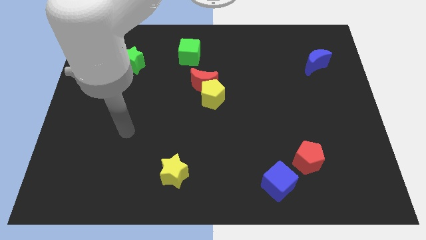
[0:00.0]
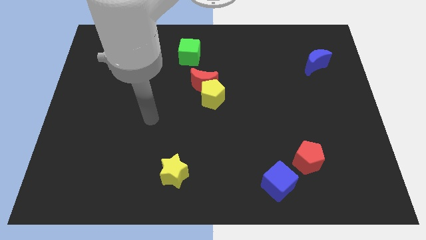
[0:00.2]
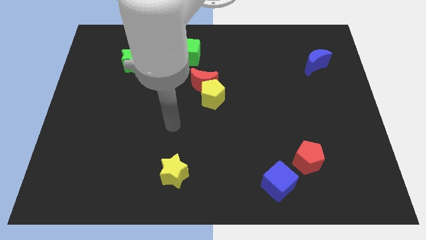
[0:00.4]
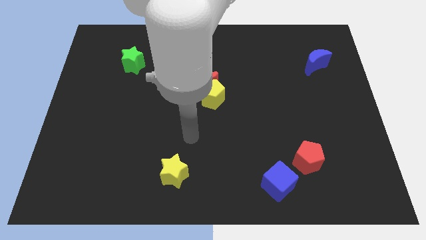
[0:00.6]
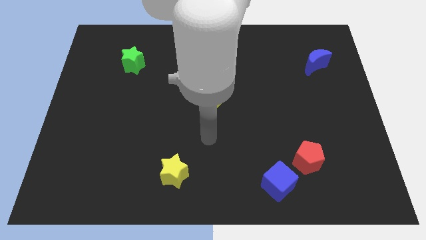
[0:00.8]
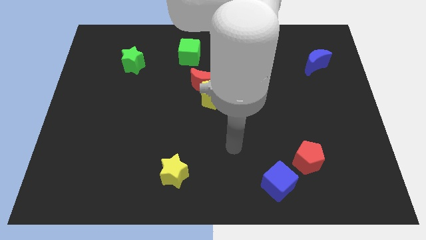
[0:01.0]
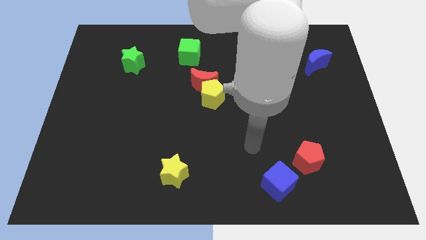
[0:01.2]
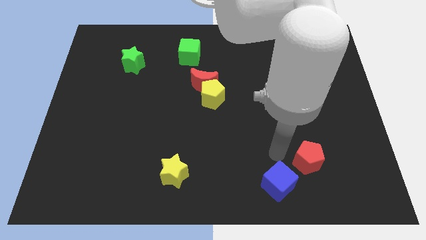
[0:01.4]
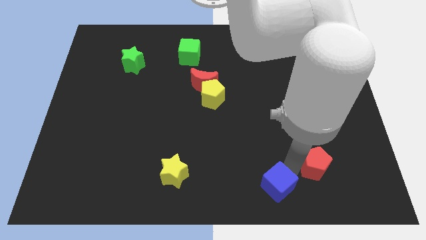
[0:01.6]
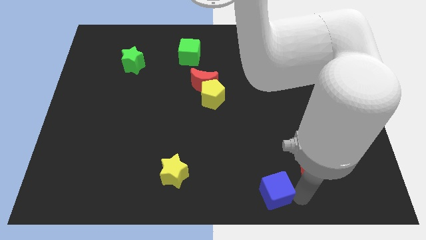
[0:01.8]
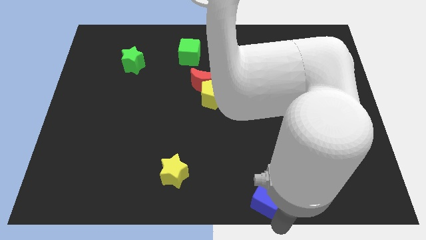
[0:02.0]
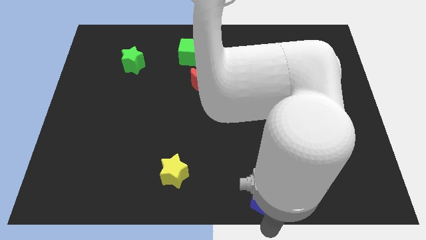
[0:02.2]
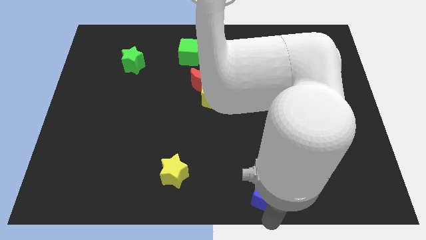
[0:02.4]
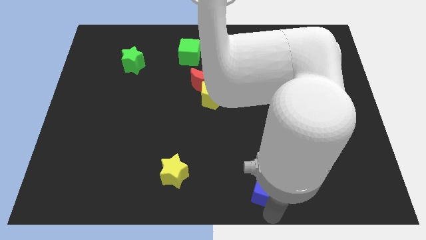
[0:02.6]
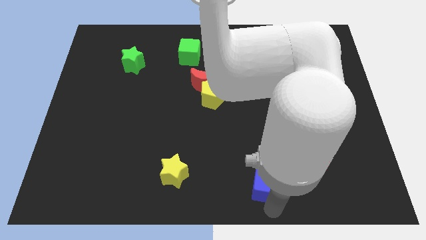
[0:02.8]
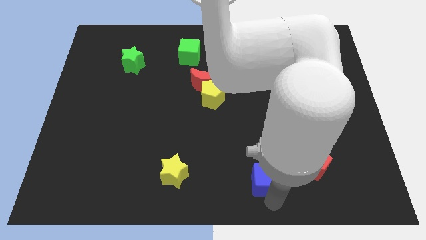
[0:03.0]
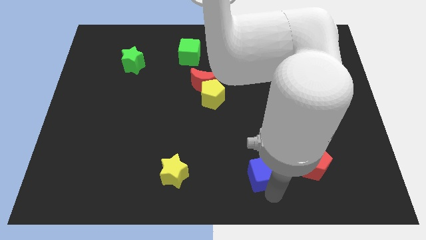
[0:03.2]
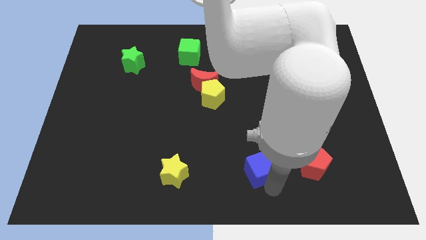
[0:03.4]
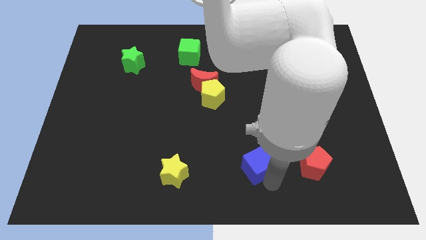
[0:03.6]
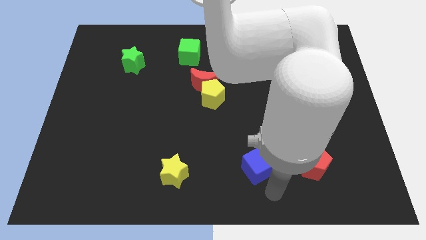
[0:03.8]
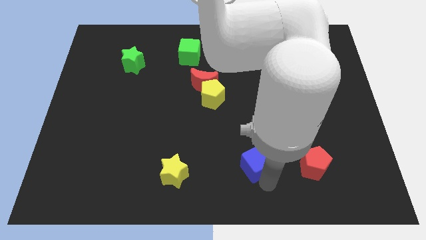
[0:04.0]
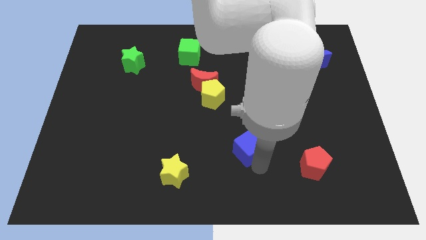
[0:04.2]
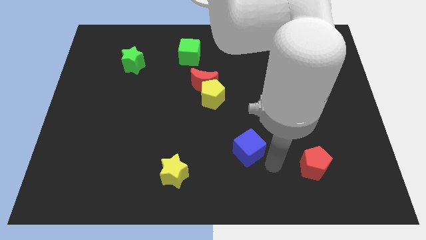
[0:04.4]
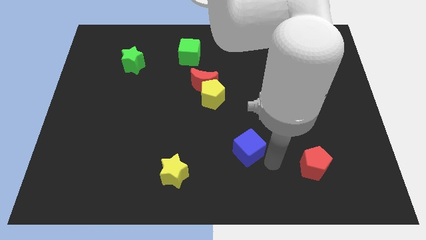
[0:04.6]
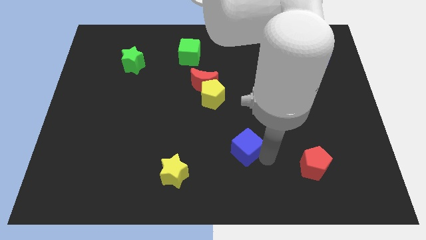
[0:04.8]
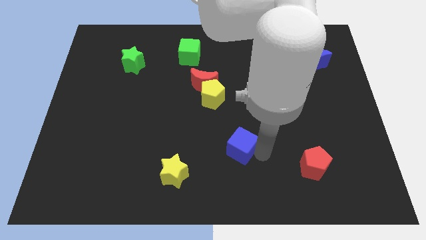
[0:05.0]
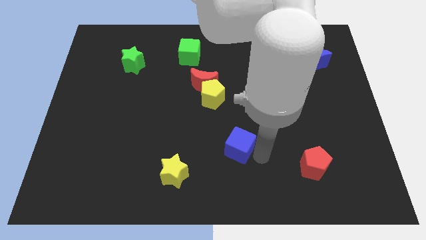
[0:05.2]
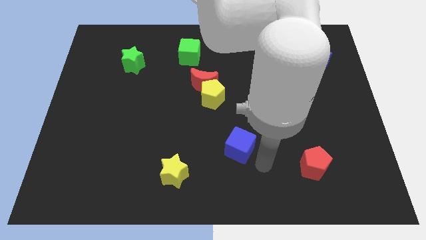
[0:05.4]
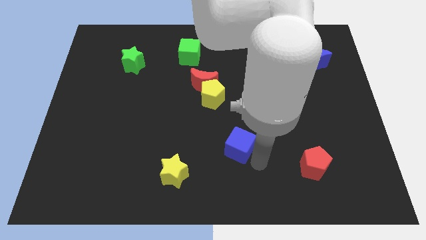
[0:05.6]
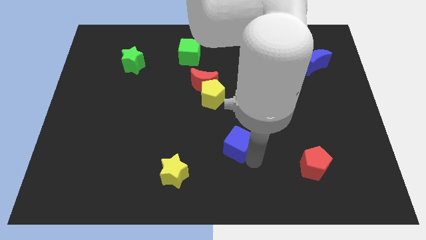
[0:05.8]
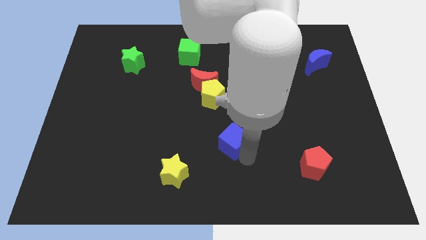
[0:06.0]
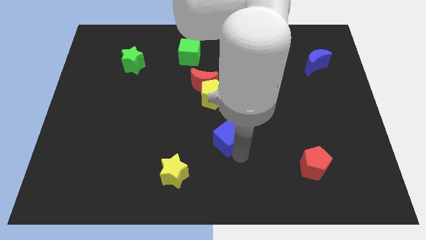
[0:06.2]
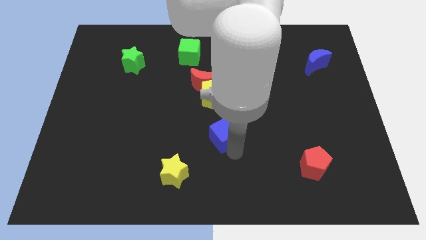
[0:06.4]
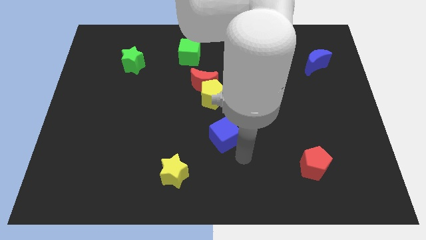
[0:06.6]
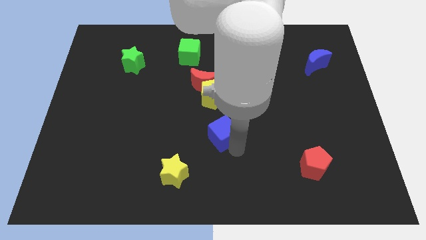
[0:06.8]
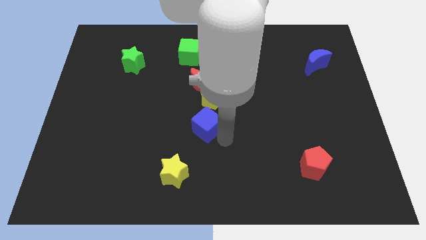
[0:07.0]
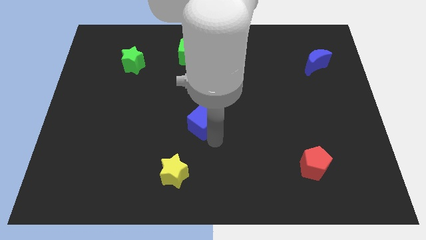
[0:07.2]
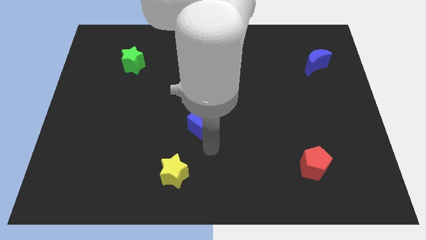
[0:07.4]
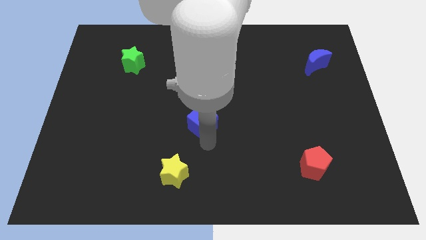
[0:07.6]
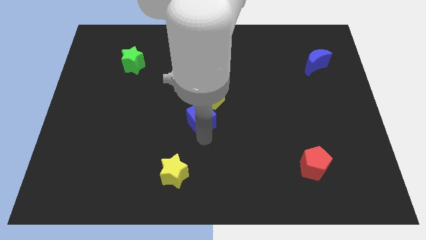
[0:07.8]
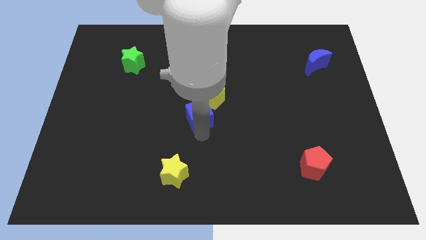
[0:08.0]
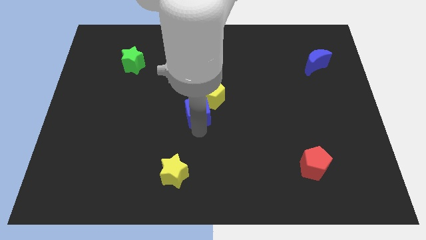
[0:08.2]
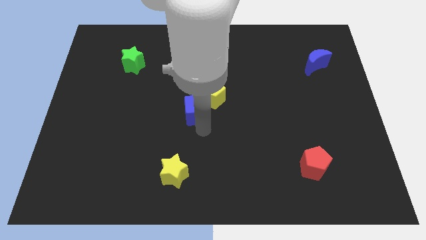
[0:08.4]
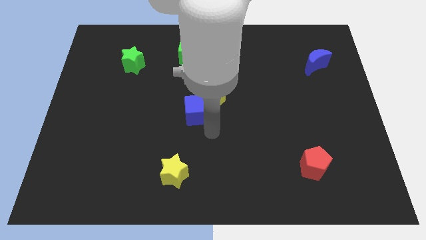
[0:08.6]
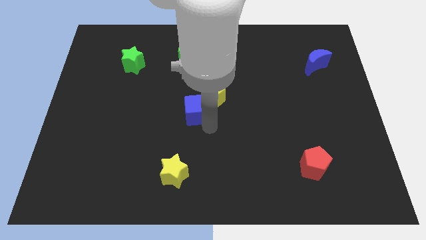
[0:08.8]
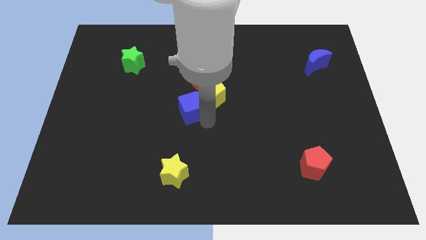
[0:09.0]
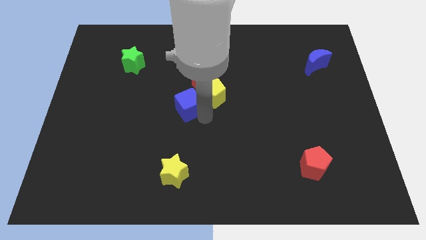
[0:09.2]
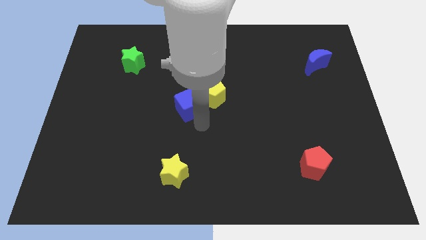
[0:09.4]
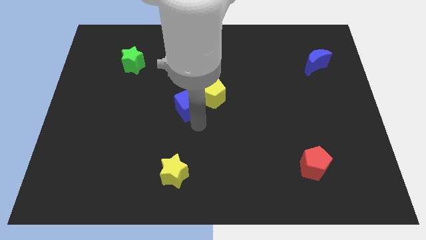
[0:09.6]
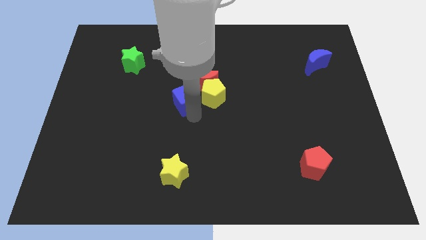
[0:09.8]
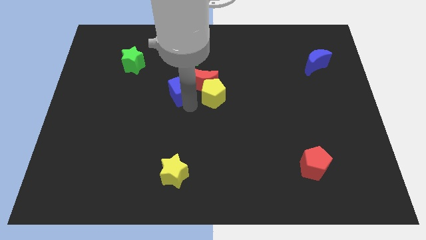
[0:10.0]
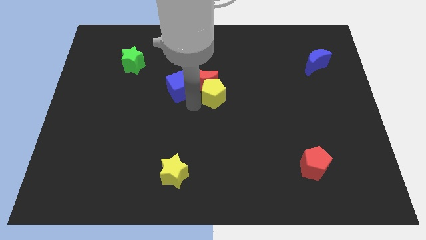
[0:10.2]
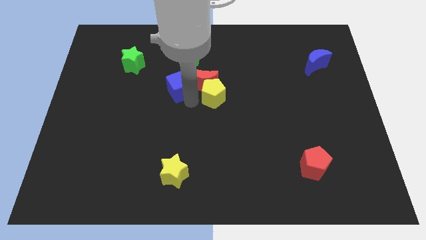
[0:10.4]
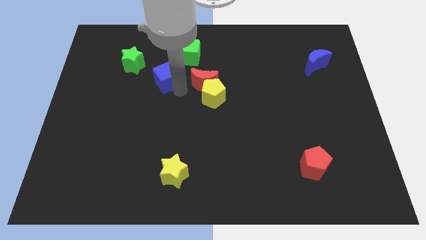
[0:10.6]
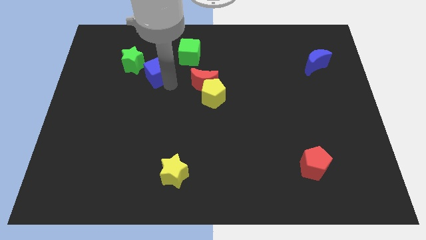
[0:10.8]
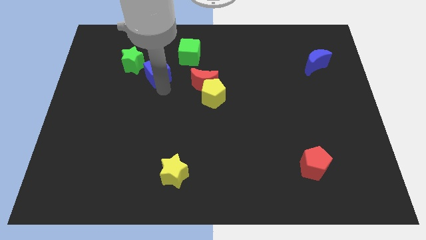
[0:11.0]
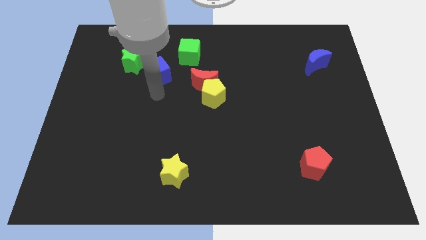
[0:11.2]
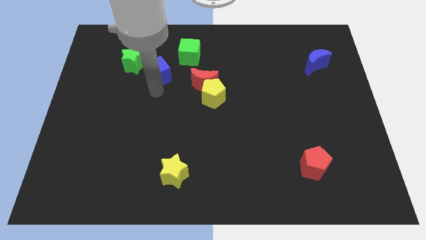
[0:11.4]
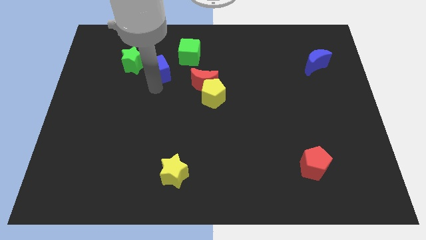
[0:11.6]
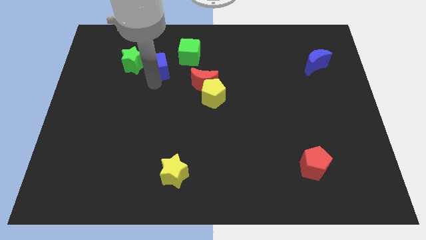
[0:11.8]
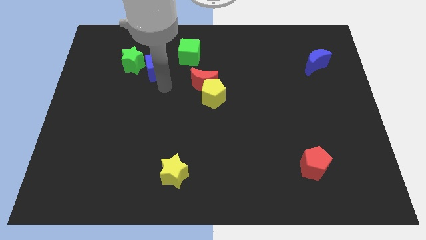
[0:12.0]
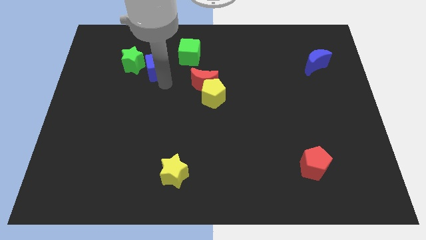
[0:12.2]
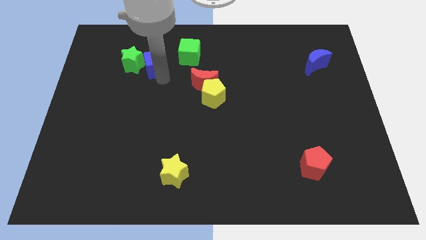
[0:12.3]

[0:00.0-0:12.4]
push the blue cube to the left of the green cube
